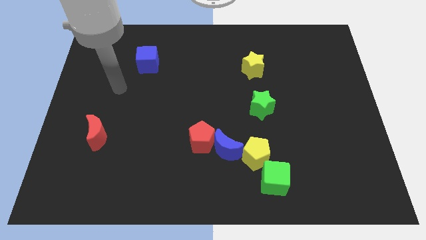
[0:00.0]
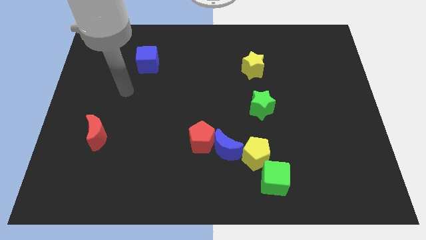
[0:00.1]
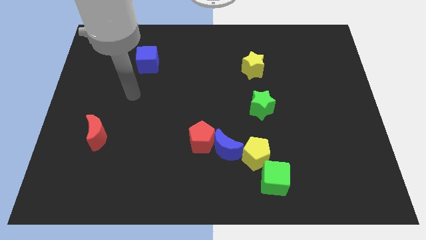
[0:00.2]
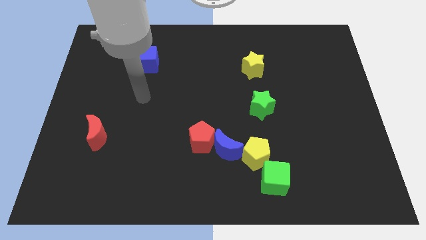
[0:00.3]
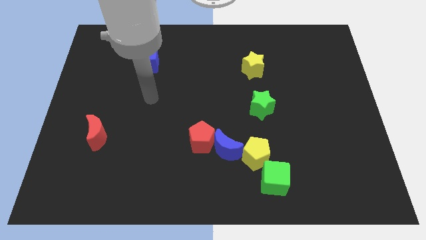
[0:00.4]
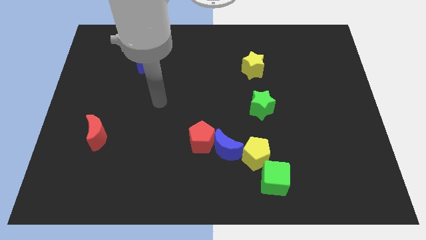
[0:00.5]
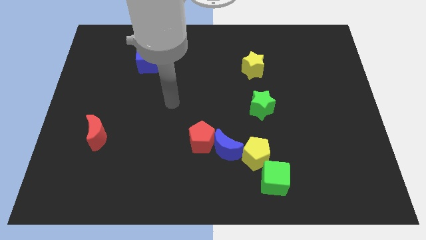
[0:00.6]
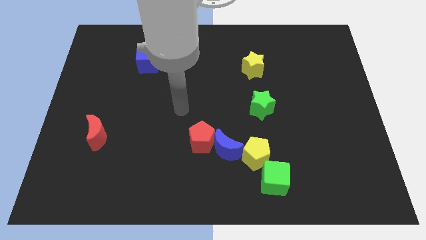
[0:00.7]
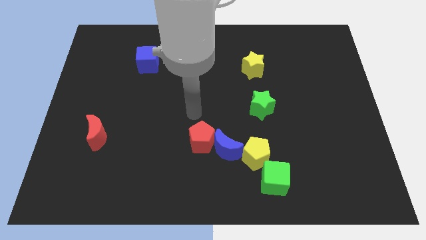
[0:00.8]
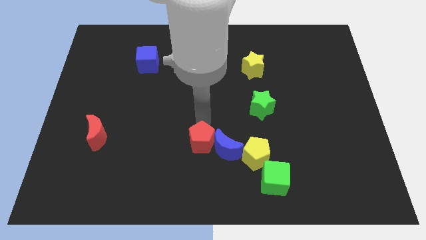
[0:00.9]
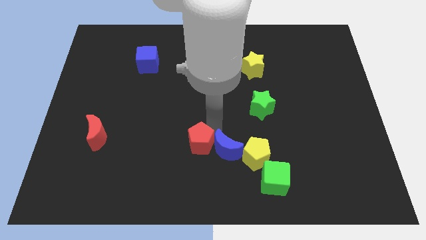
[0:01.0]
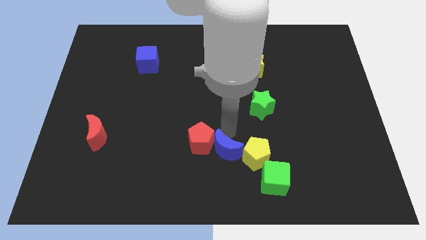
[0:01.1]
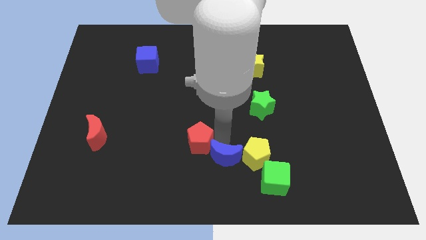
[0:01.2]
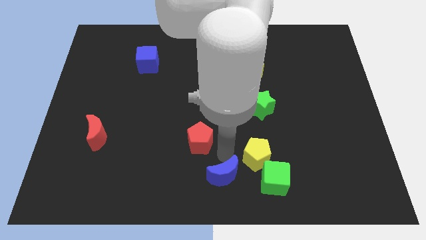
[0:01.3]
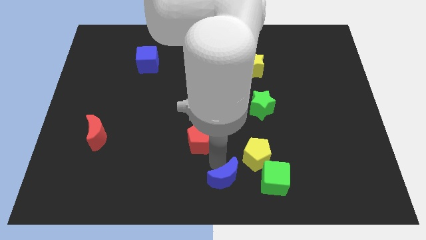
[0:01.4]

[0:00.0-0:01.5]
pull the red pentagon apart from the blue moon

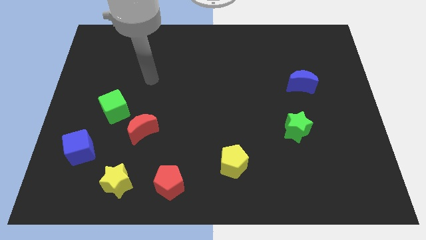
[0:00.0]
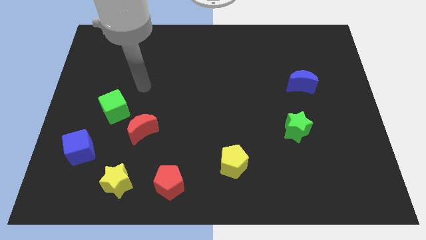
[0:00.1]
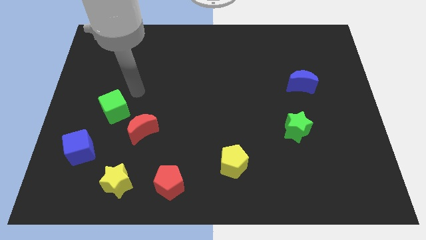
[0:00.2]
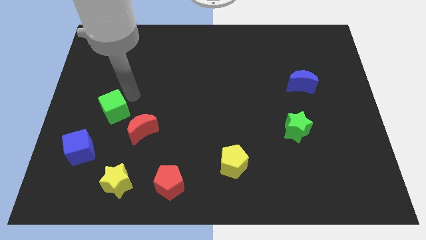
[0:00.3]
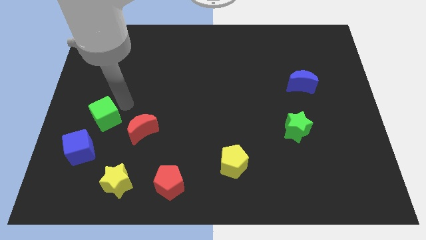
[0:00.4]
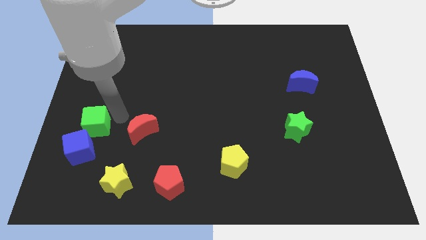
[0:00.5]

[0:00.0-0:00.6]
move the red moon away from the green cube

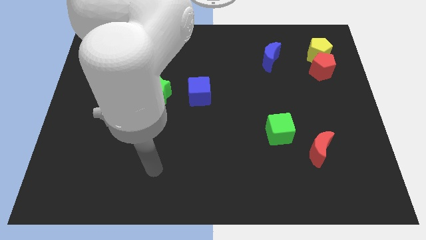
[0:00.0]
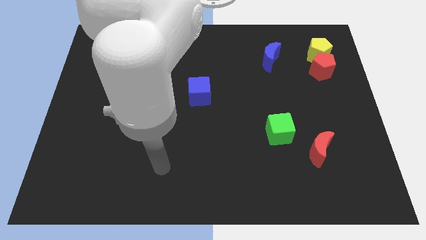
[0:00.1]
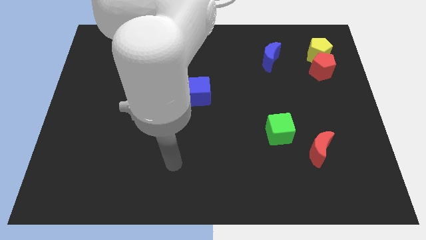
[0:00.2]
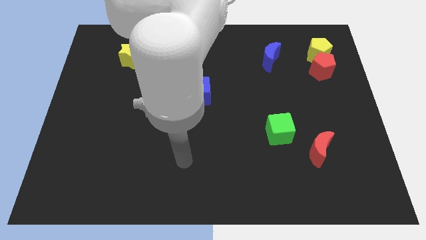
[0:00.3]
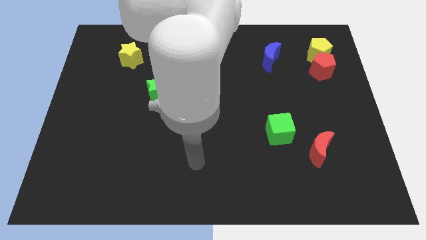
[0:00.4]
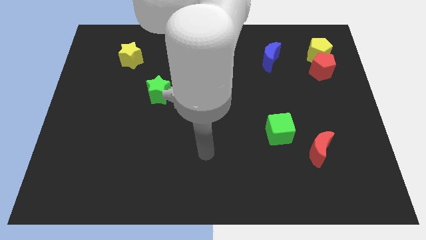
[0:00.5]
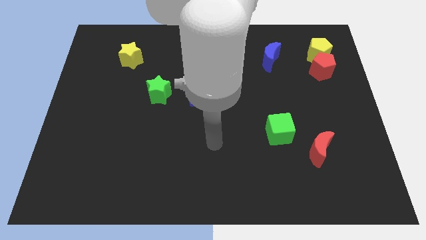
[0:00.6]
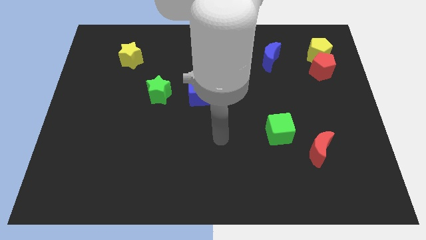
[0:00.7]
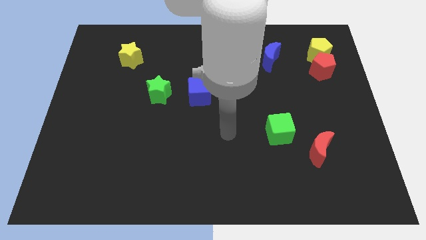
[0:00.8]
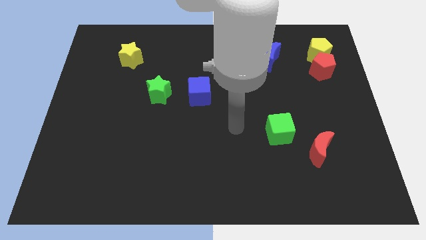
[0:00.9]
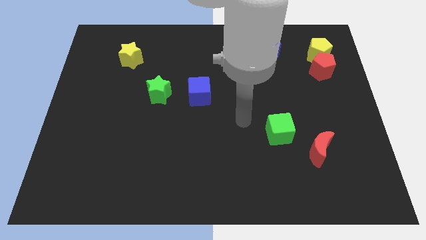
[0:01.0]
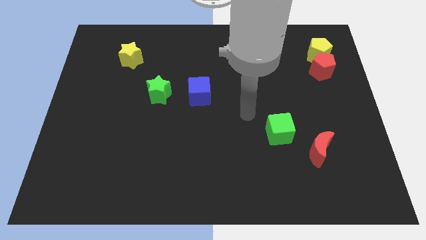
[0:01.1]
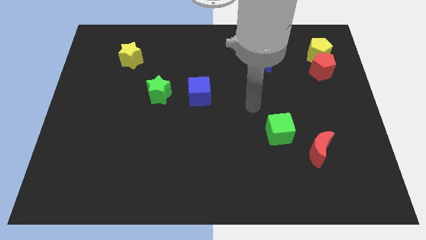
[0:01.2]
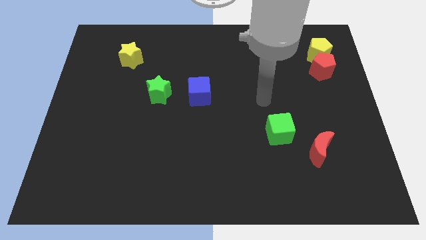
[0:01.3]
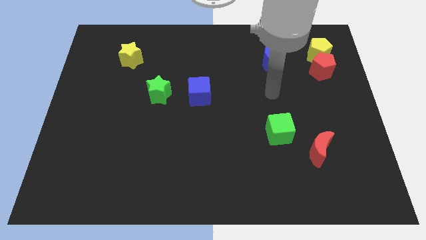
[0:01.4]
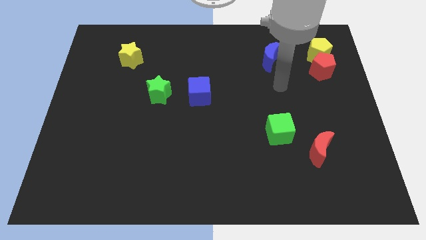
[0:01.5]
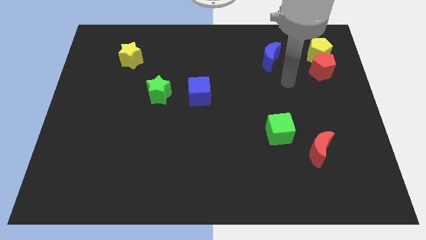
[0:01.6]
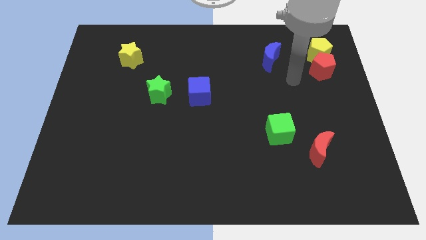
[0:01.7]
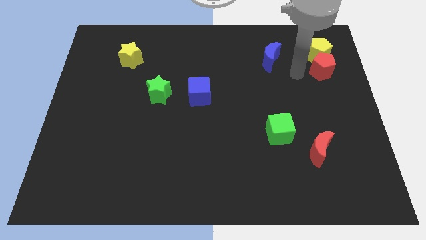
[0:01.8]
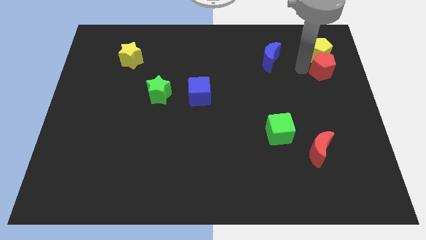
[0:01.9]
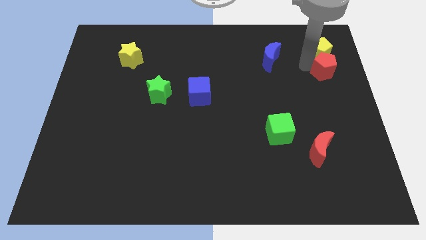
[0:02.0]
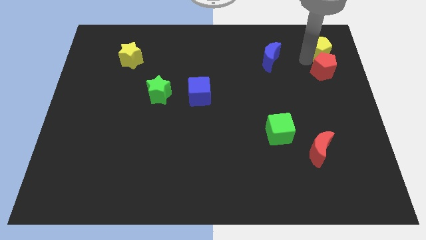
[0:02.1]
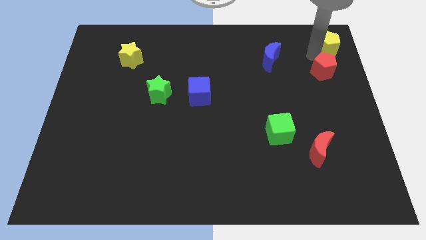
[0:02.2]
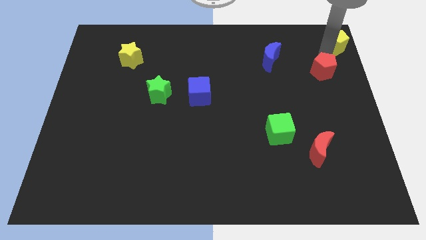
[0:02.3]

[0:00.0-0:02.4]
pull the red pentagon apart from the yellow pentagon

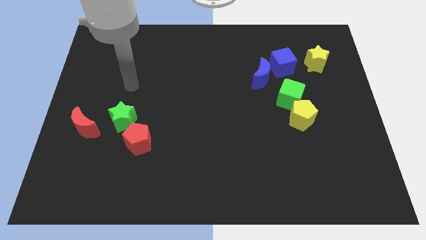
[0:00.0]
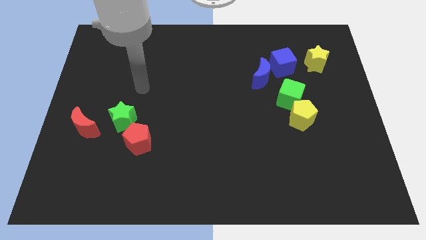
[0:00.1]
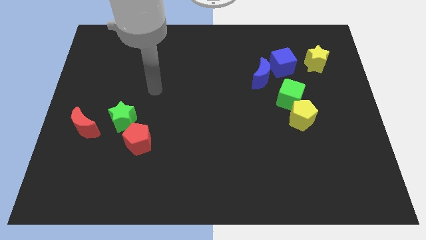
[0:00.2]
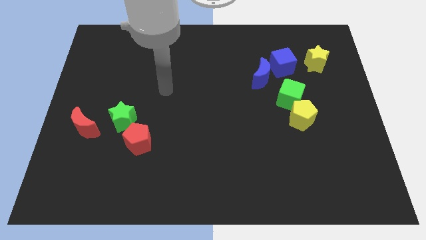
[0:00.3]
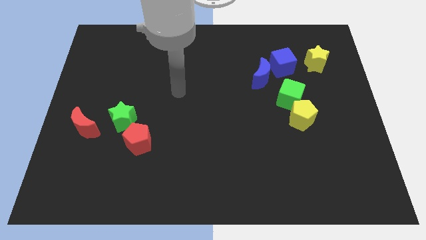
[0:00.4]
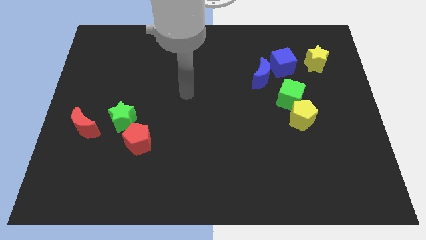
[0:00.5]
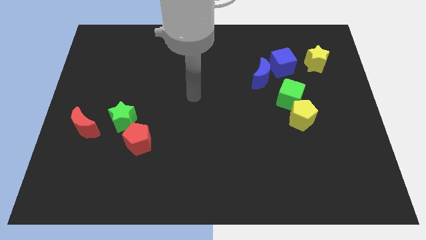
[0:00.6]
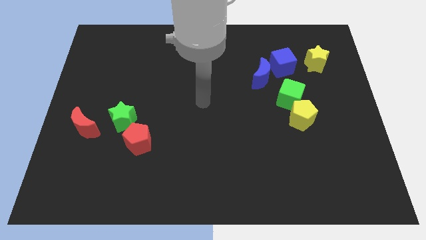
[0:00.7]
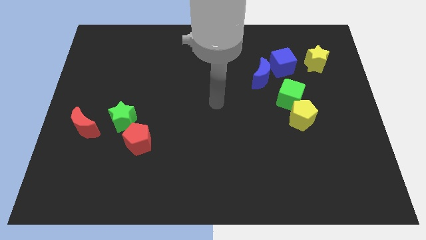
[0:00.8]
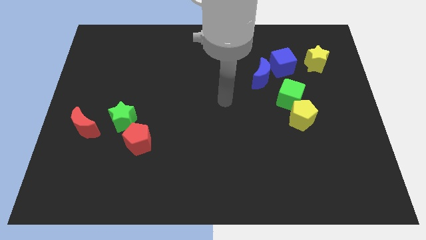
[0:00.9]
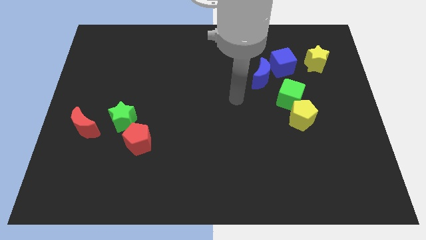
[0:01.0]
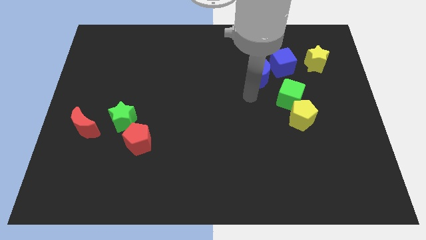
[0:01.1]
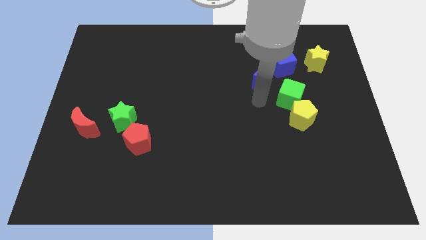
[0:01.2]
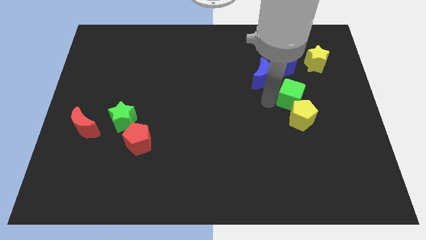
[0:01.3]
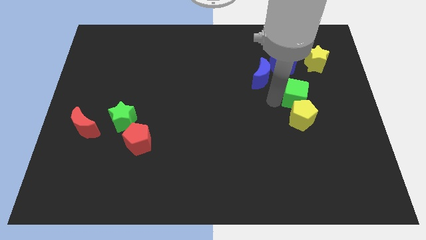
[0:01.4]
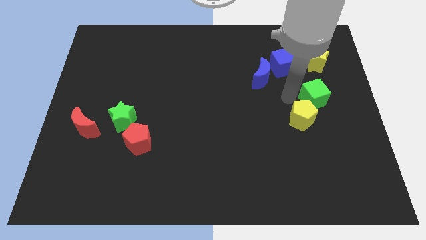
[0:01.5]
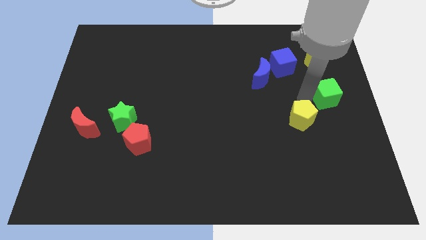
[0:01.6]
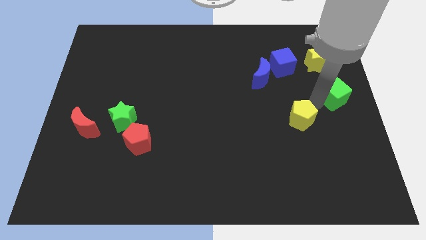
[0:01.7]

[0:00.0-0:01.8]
separate the yellow pentagon from the green cube

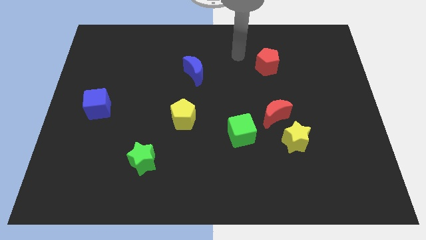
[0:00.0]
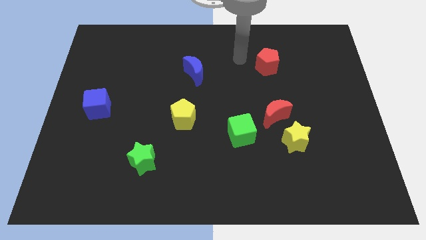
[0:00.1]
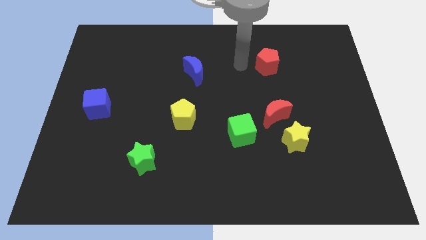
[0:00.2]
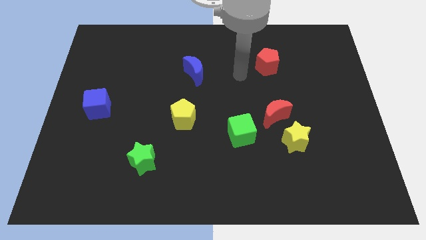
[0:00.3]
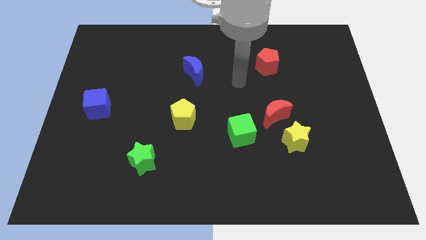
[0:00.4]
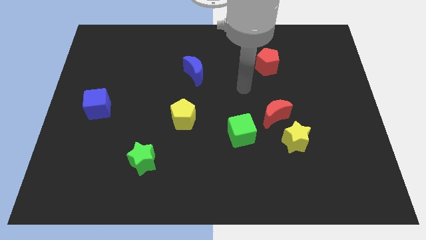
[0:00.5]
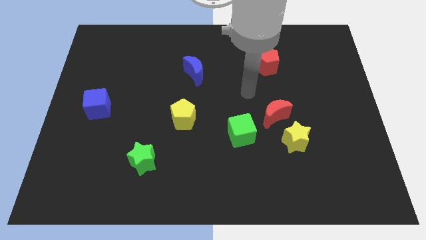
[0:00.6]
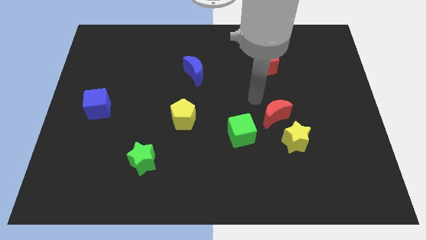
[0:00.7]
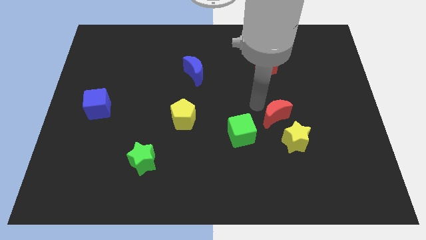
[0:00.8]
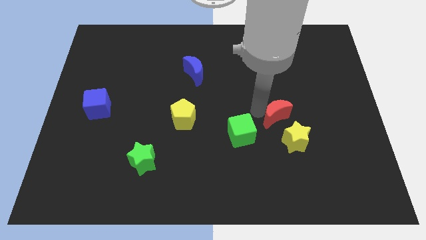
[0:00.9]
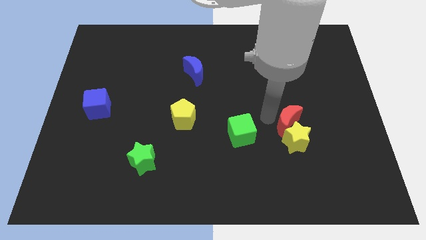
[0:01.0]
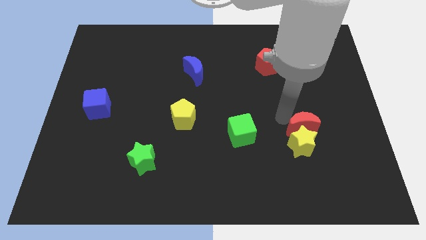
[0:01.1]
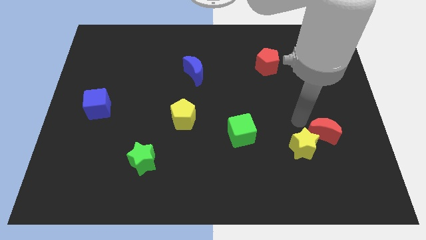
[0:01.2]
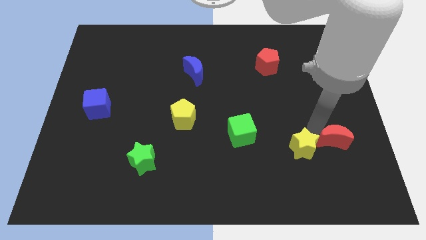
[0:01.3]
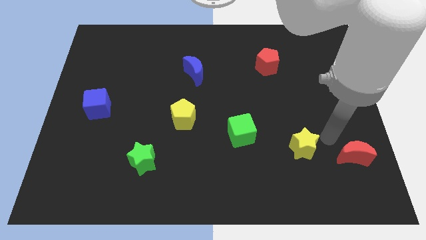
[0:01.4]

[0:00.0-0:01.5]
move the yellow star away from the red moon

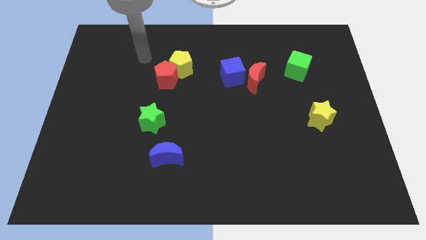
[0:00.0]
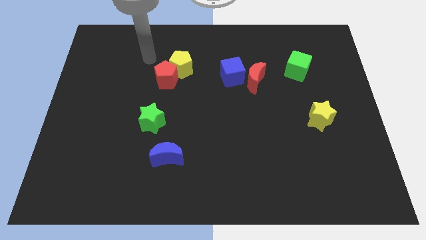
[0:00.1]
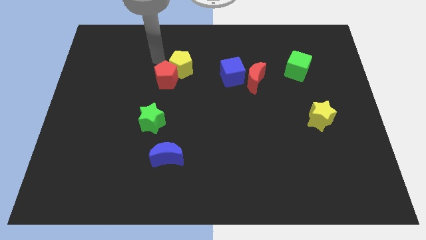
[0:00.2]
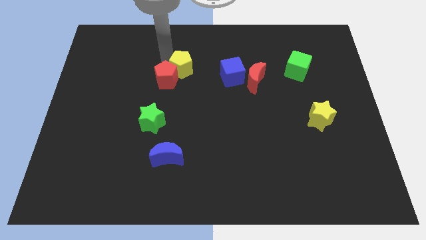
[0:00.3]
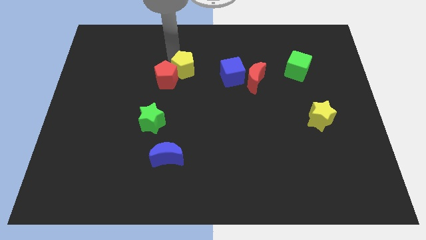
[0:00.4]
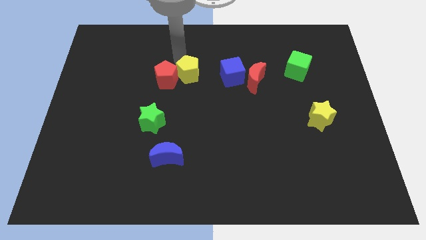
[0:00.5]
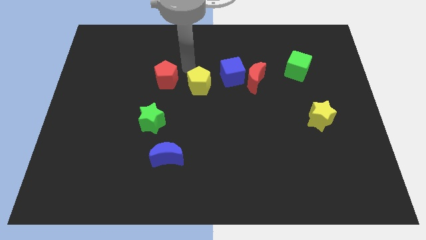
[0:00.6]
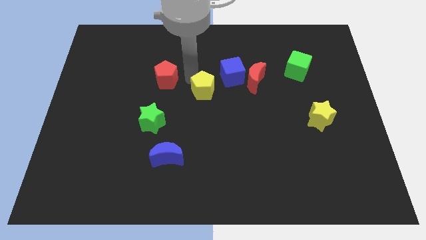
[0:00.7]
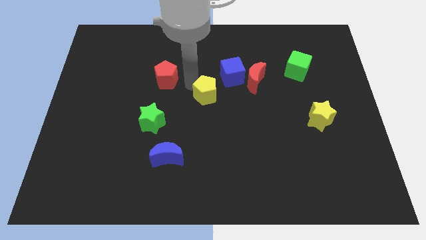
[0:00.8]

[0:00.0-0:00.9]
separate the red pentagon from the yellow pentagon

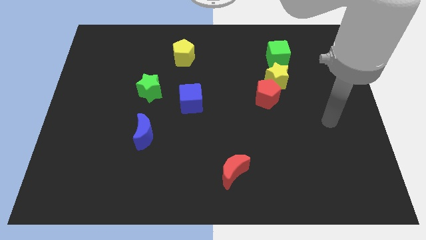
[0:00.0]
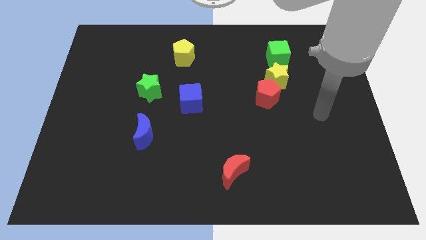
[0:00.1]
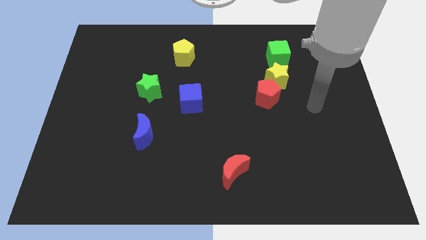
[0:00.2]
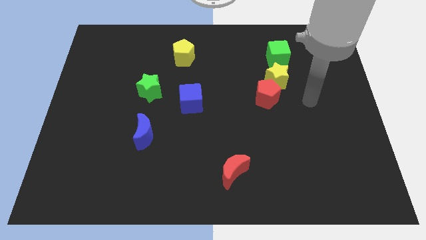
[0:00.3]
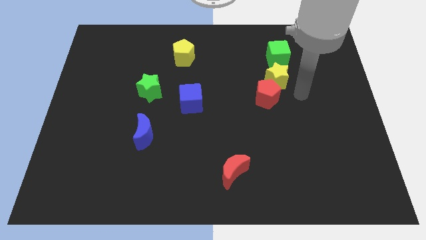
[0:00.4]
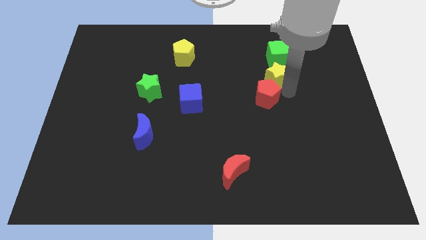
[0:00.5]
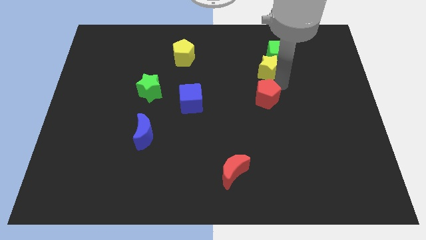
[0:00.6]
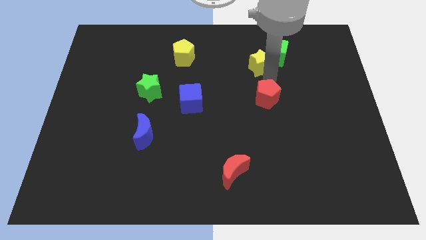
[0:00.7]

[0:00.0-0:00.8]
separate the red pentagon from the yellow star
